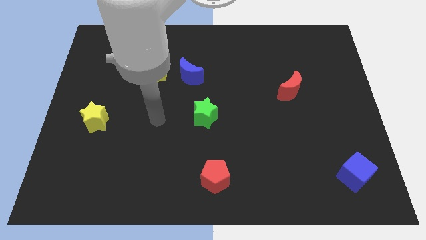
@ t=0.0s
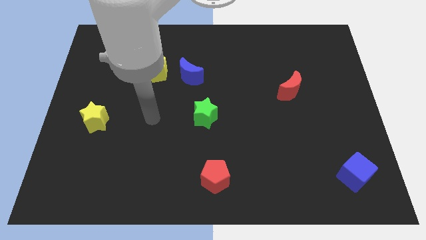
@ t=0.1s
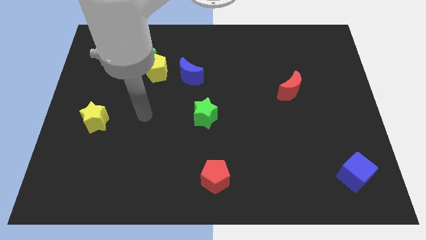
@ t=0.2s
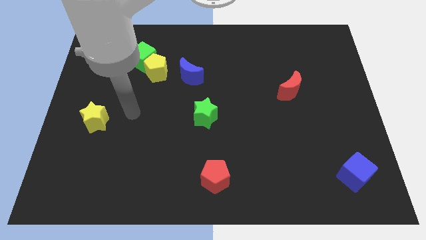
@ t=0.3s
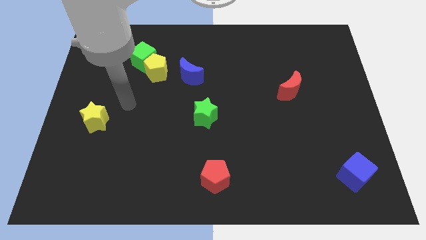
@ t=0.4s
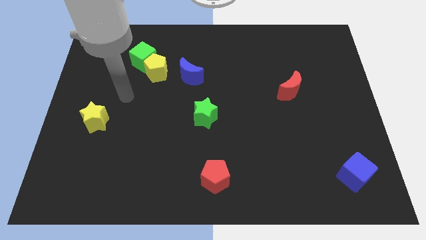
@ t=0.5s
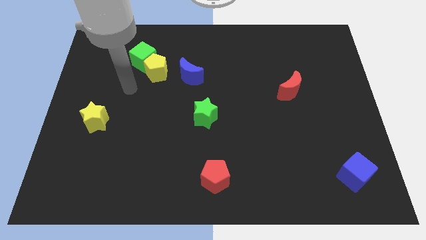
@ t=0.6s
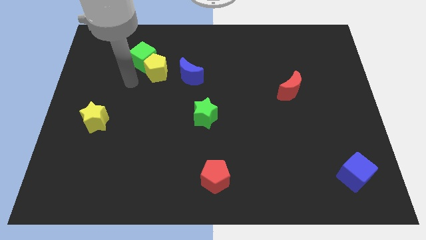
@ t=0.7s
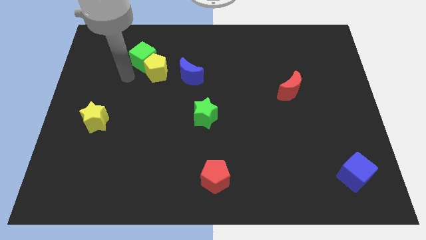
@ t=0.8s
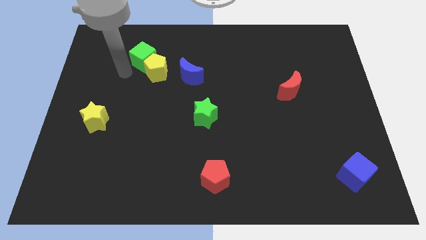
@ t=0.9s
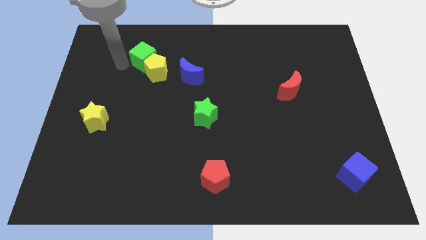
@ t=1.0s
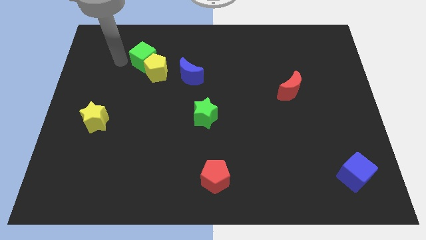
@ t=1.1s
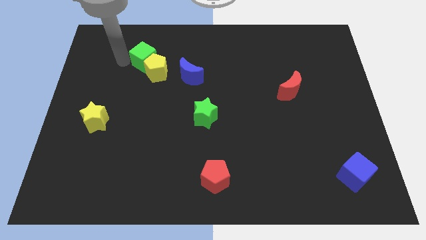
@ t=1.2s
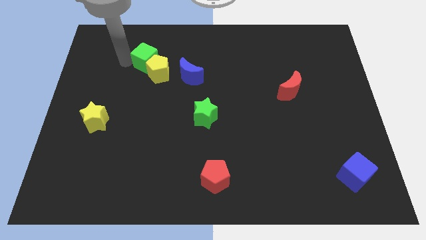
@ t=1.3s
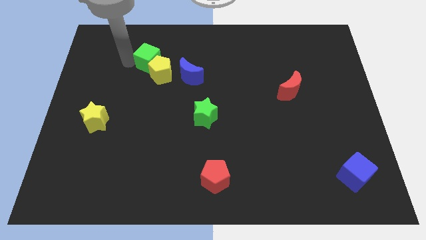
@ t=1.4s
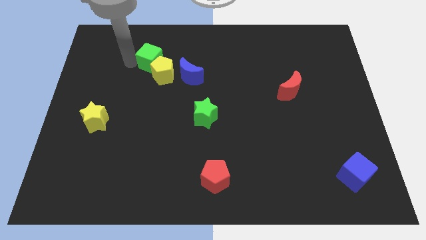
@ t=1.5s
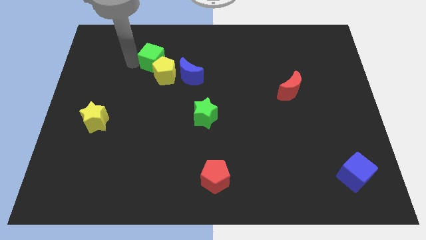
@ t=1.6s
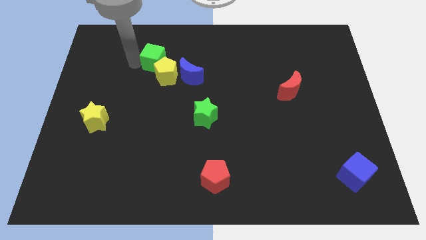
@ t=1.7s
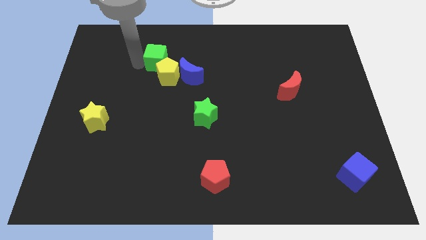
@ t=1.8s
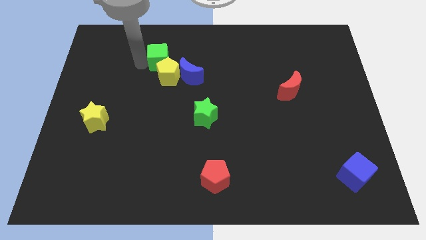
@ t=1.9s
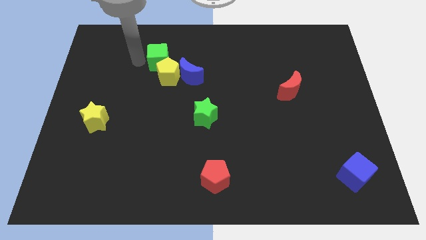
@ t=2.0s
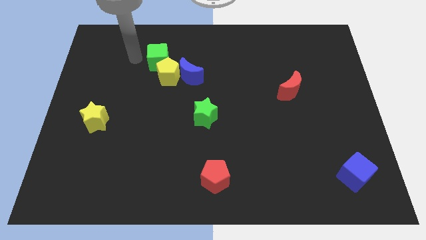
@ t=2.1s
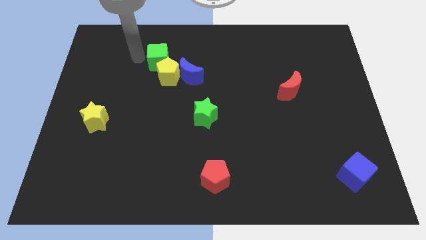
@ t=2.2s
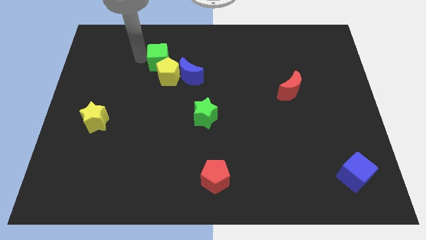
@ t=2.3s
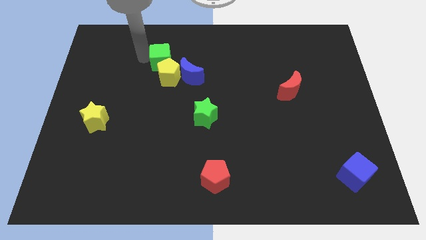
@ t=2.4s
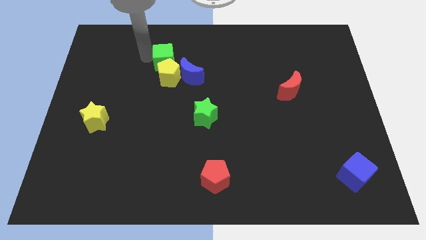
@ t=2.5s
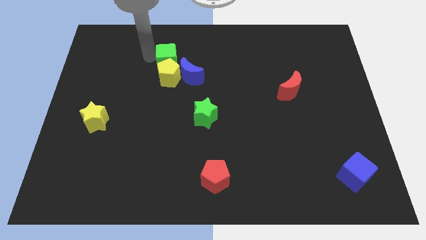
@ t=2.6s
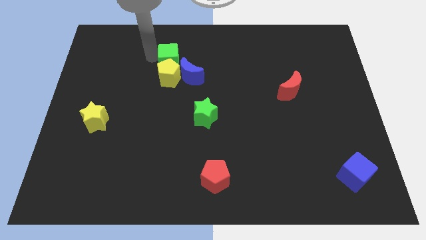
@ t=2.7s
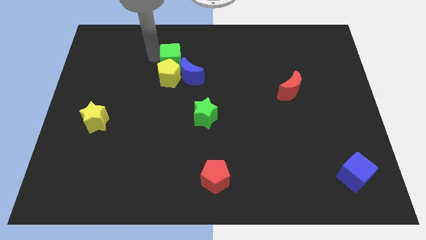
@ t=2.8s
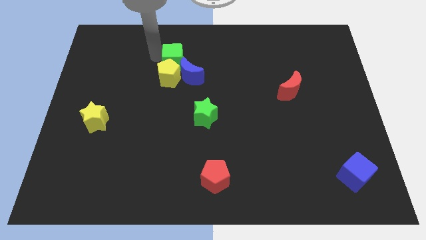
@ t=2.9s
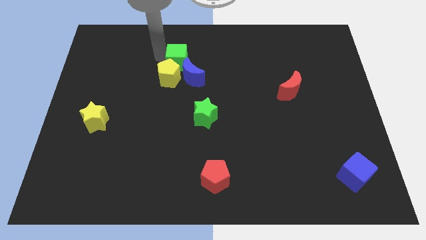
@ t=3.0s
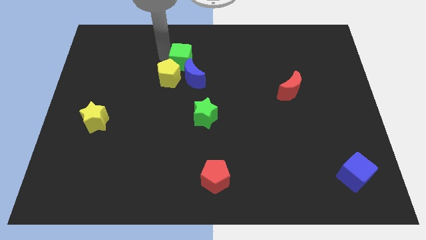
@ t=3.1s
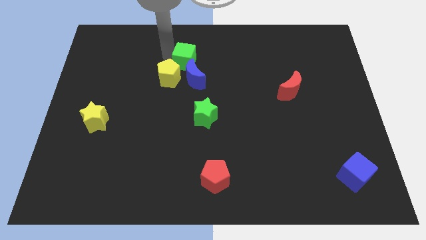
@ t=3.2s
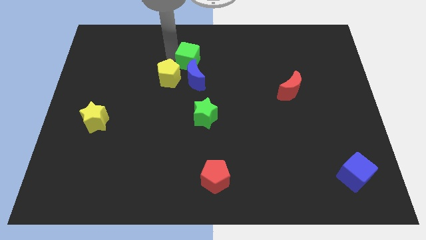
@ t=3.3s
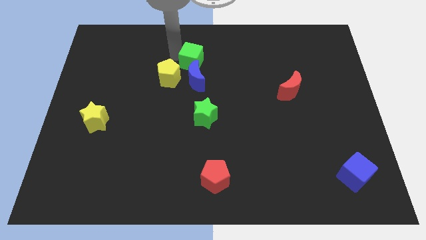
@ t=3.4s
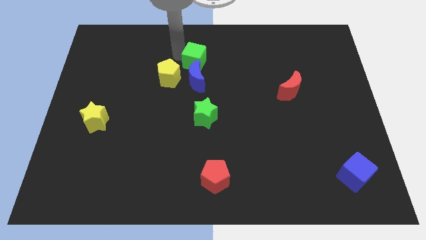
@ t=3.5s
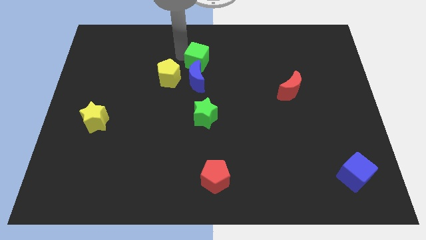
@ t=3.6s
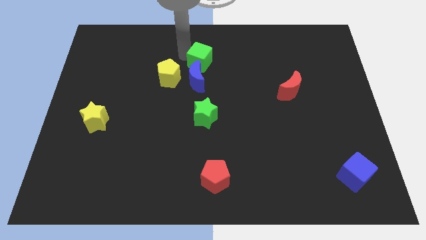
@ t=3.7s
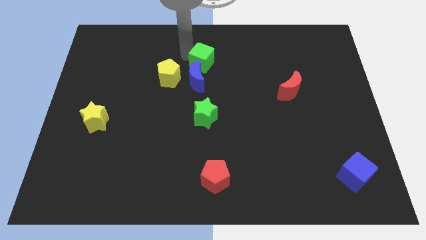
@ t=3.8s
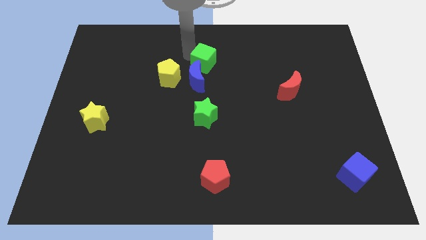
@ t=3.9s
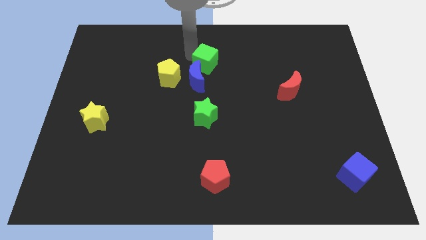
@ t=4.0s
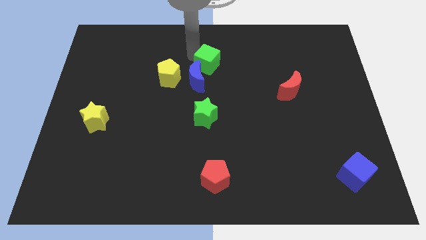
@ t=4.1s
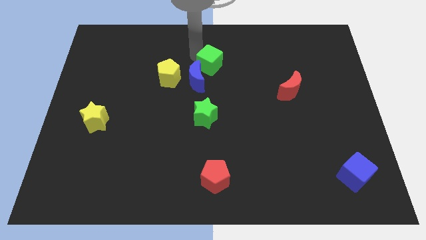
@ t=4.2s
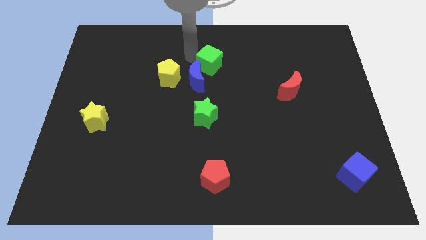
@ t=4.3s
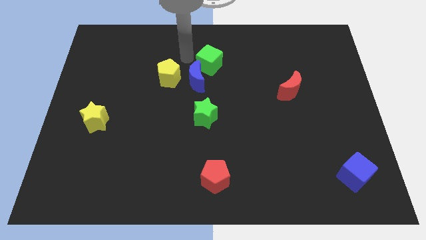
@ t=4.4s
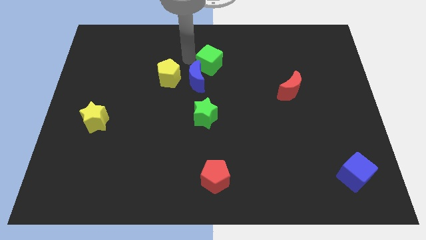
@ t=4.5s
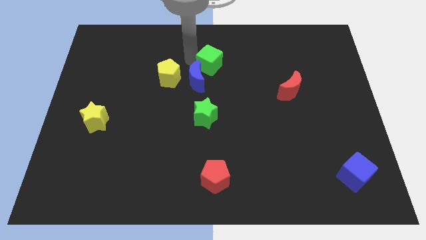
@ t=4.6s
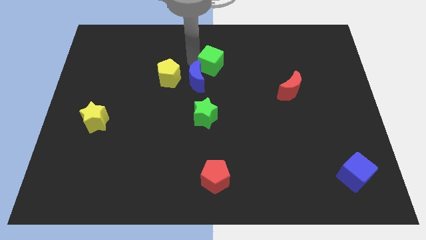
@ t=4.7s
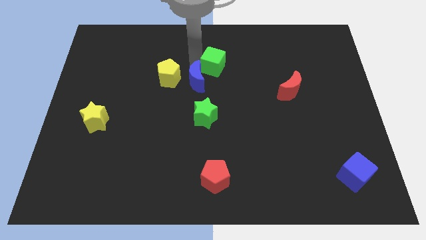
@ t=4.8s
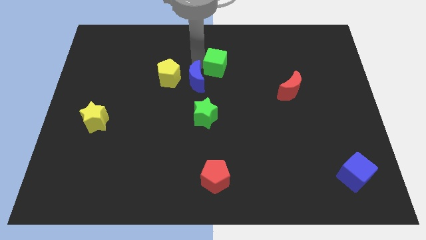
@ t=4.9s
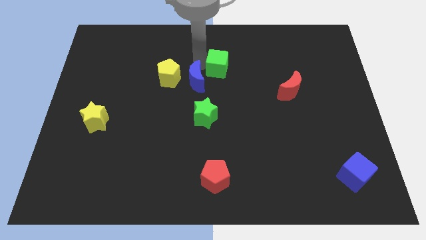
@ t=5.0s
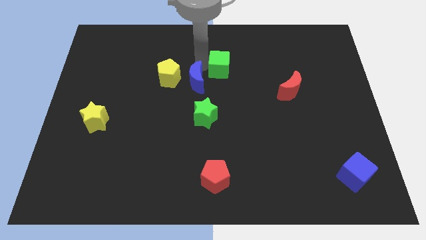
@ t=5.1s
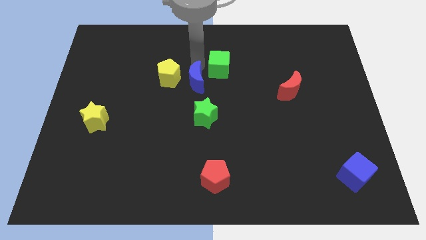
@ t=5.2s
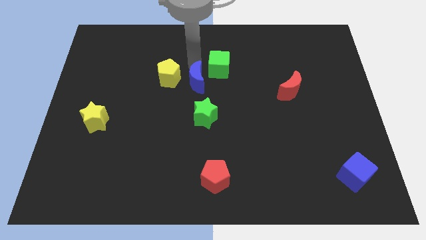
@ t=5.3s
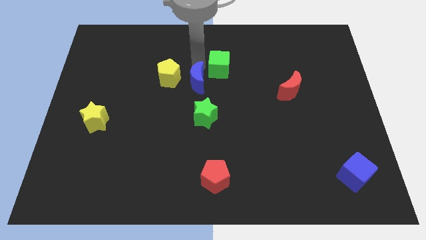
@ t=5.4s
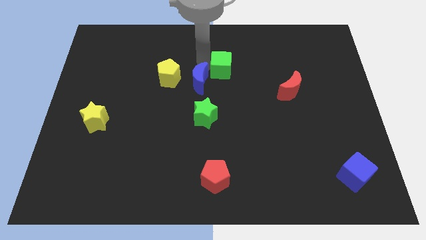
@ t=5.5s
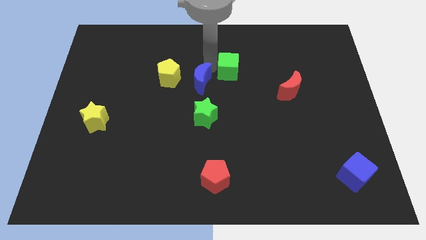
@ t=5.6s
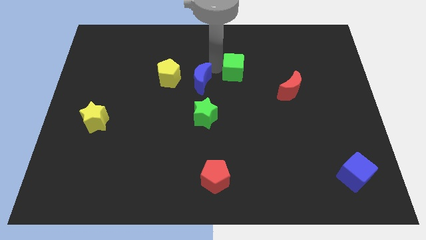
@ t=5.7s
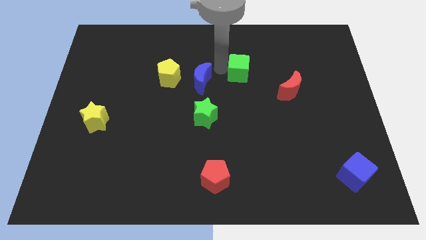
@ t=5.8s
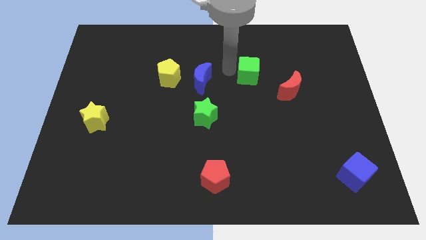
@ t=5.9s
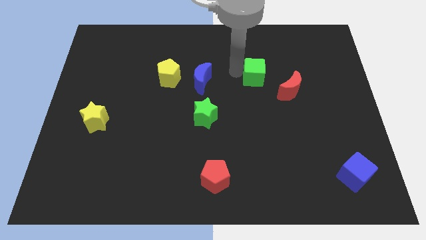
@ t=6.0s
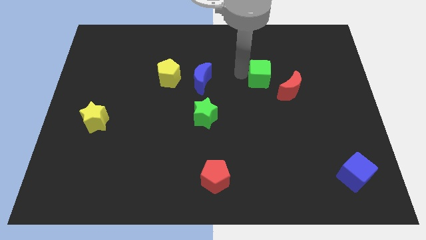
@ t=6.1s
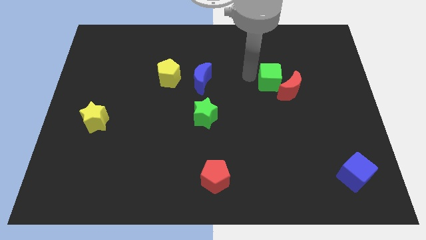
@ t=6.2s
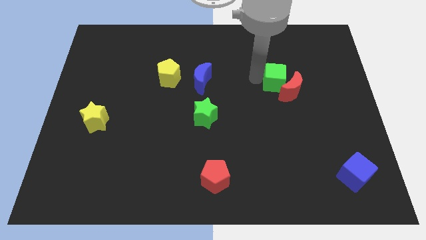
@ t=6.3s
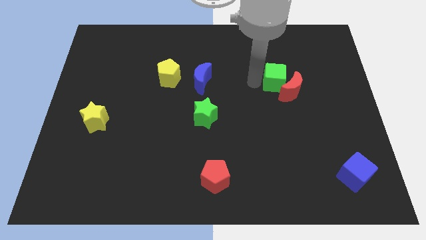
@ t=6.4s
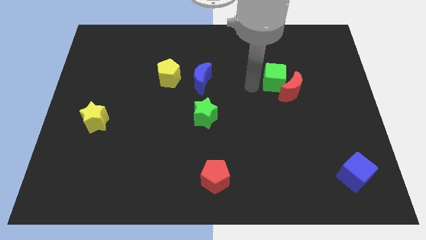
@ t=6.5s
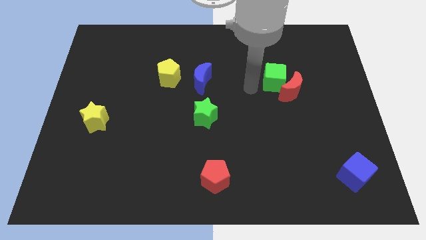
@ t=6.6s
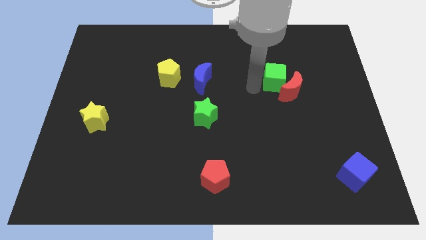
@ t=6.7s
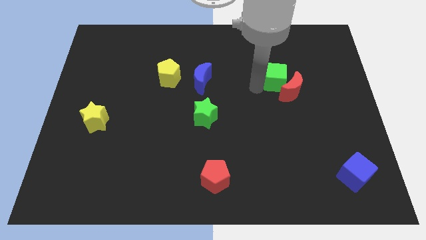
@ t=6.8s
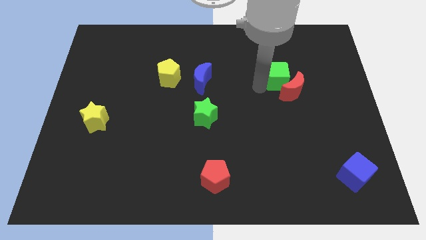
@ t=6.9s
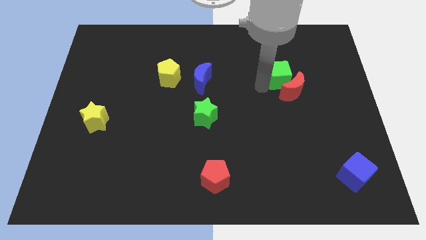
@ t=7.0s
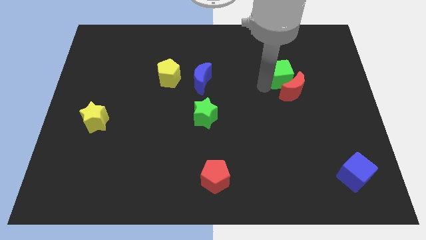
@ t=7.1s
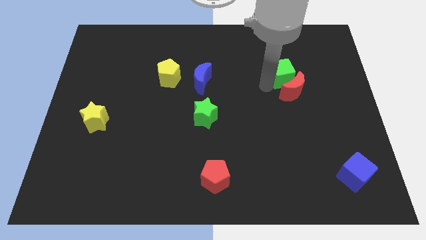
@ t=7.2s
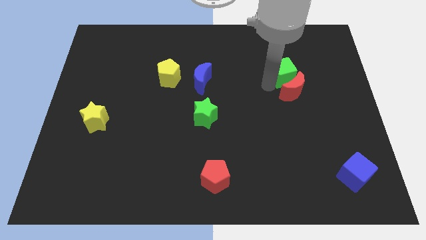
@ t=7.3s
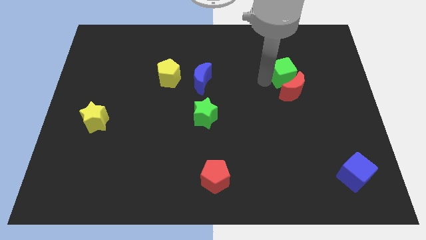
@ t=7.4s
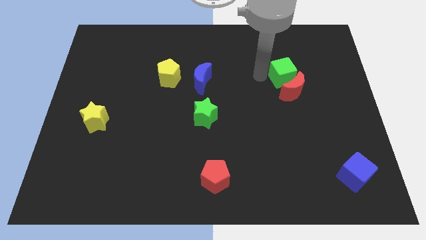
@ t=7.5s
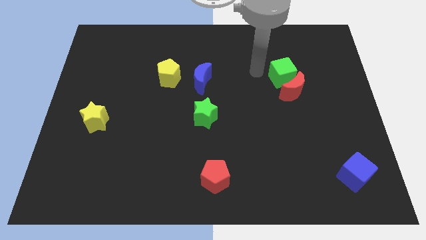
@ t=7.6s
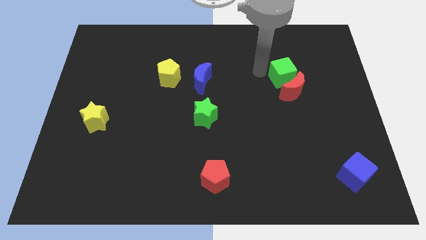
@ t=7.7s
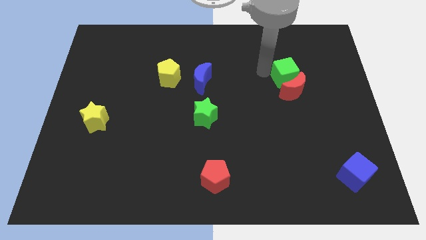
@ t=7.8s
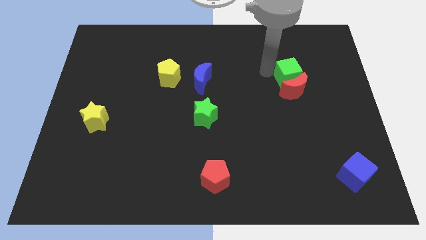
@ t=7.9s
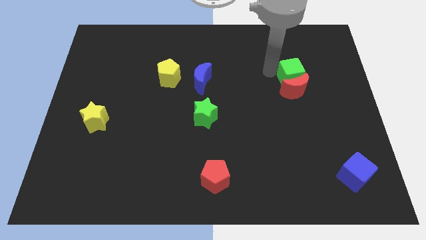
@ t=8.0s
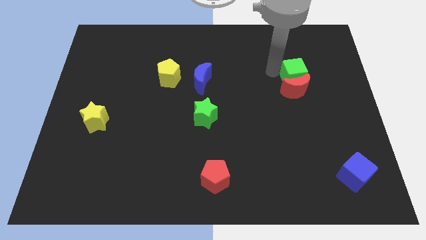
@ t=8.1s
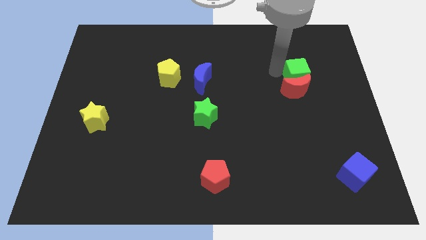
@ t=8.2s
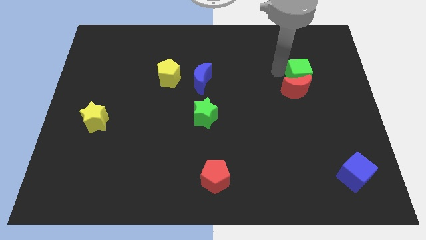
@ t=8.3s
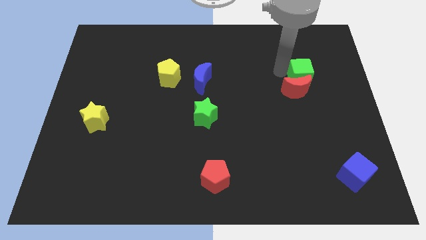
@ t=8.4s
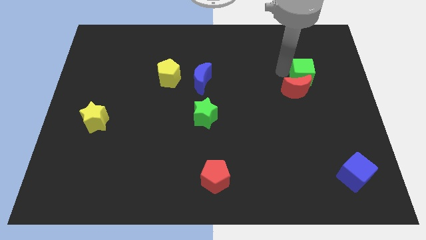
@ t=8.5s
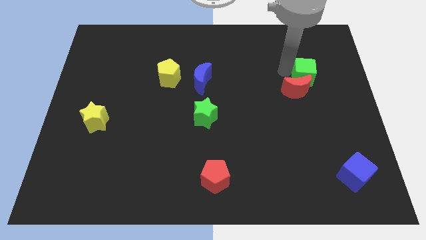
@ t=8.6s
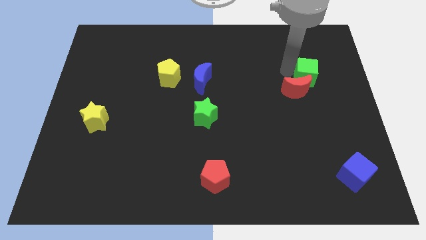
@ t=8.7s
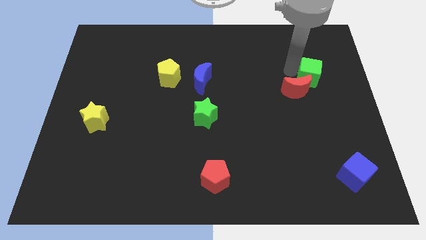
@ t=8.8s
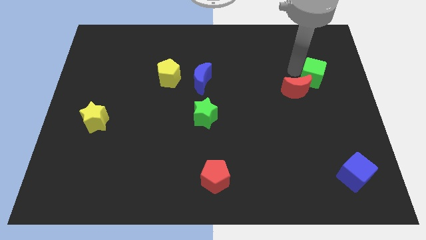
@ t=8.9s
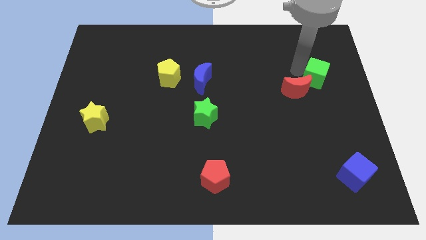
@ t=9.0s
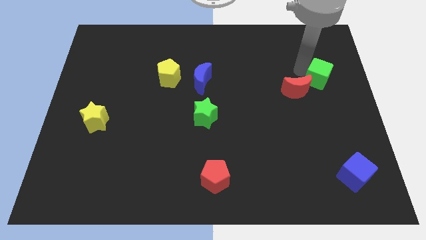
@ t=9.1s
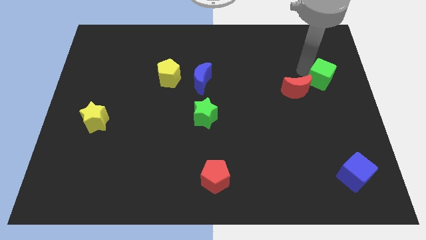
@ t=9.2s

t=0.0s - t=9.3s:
move the green cube to the right side of the board
